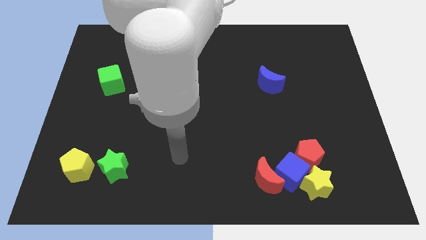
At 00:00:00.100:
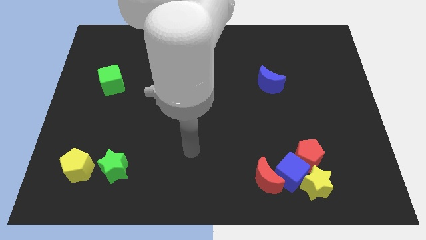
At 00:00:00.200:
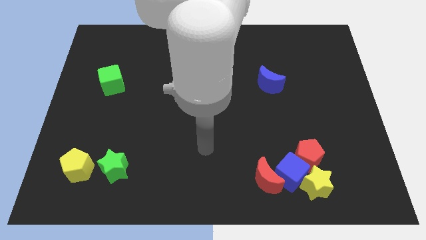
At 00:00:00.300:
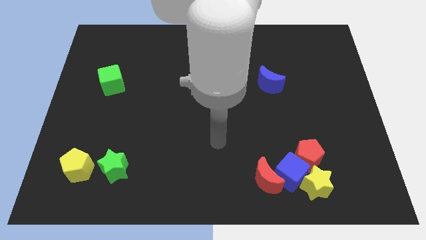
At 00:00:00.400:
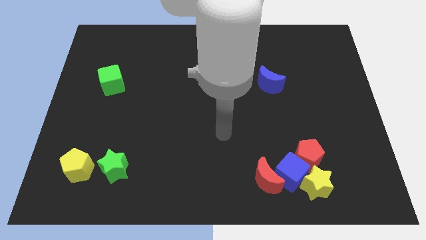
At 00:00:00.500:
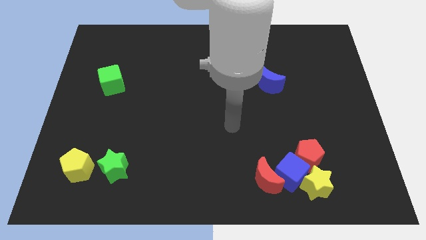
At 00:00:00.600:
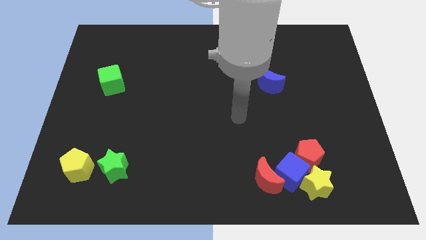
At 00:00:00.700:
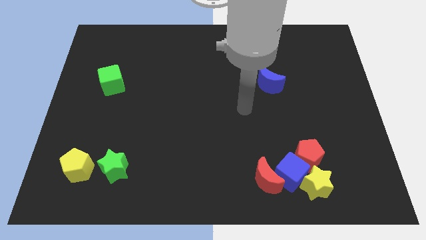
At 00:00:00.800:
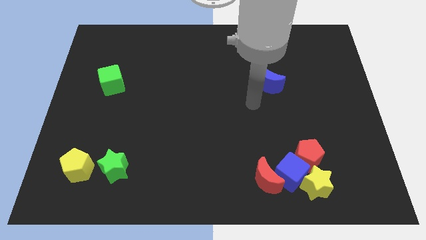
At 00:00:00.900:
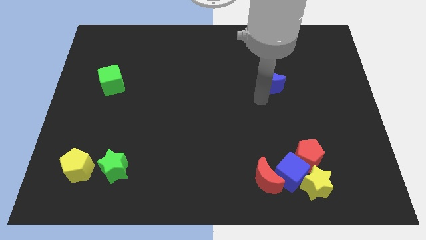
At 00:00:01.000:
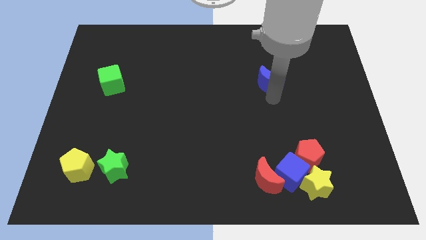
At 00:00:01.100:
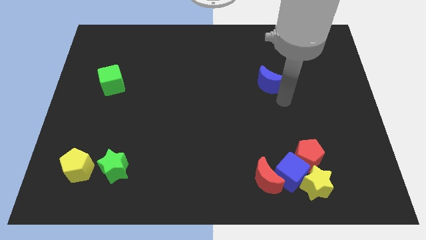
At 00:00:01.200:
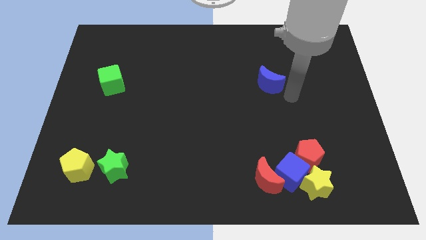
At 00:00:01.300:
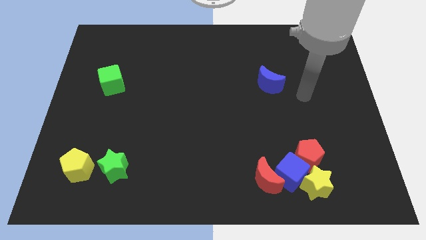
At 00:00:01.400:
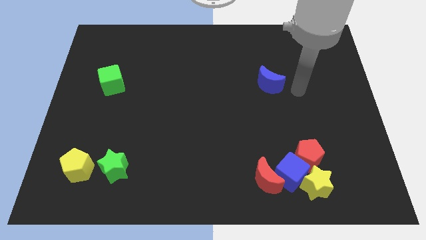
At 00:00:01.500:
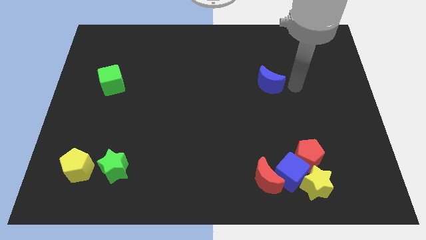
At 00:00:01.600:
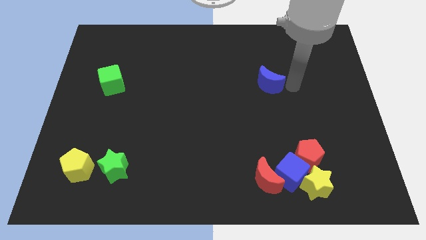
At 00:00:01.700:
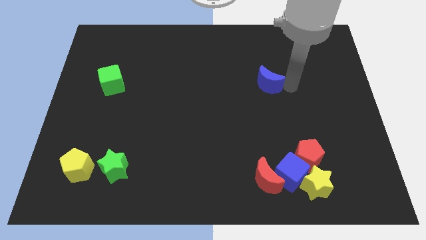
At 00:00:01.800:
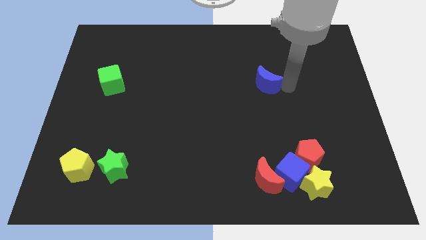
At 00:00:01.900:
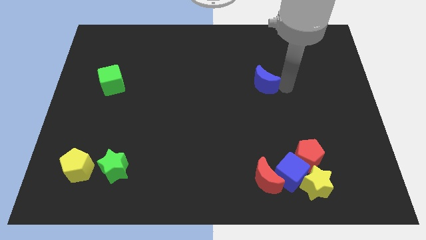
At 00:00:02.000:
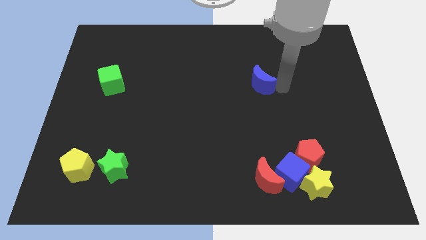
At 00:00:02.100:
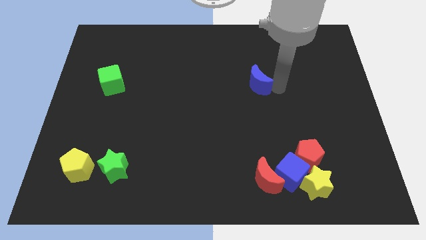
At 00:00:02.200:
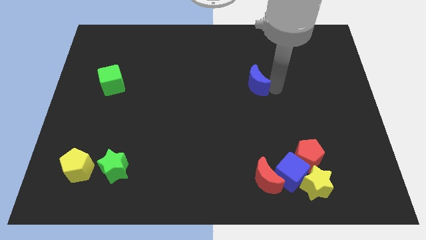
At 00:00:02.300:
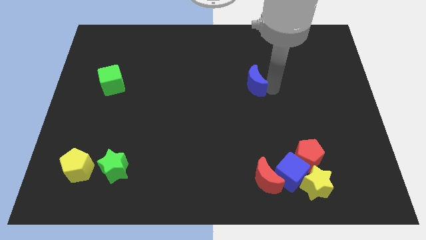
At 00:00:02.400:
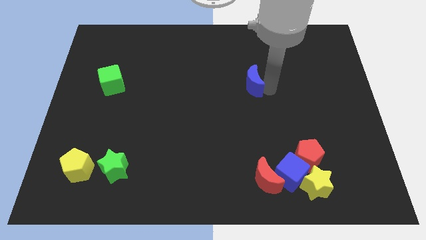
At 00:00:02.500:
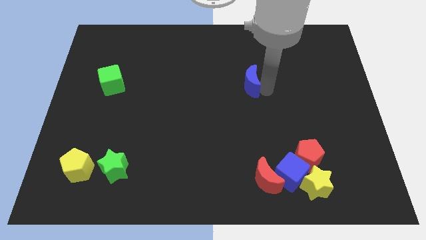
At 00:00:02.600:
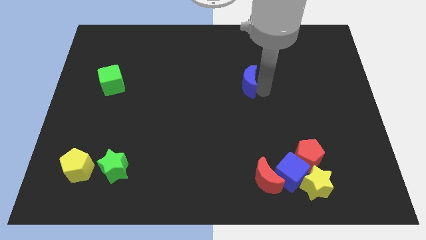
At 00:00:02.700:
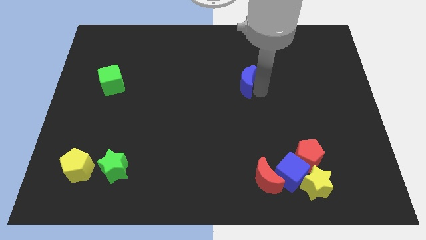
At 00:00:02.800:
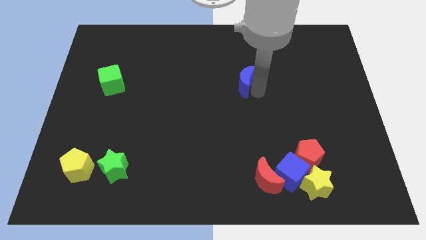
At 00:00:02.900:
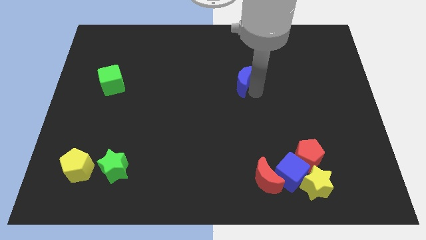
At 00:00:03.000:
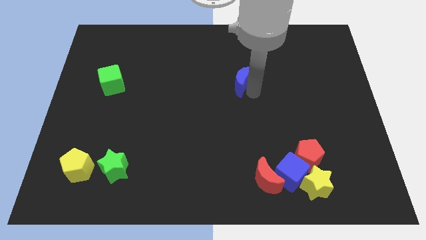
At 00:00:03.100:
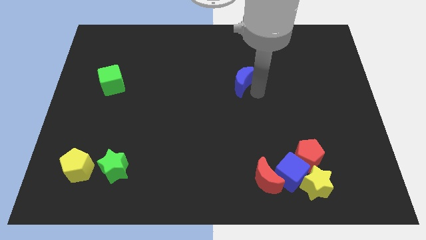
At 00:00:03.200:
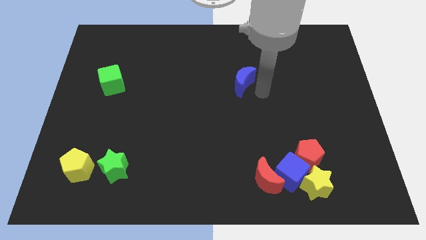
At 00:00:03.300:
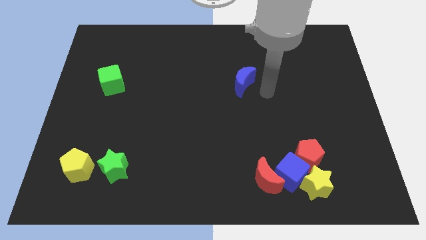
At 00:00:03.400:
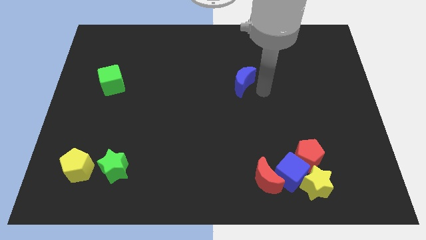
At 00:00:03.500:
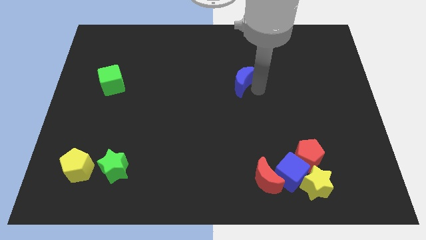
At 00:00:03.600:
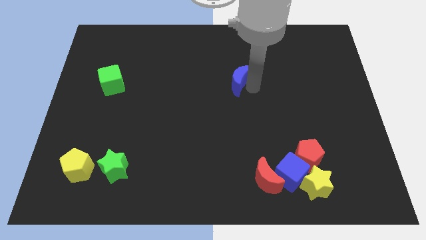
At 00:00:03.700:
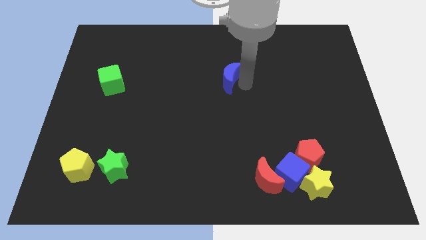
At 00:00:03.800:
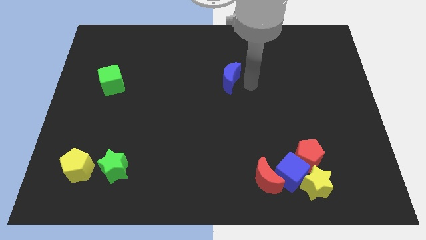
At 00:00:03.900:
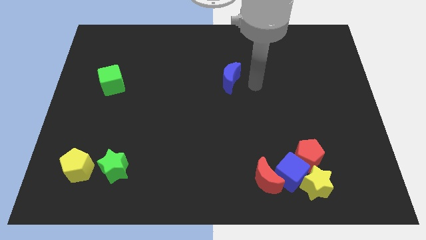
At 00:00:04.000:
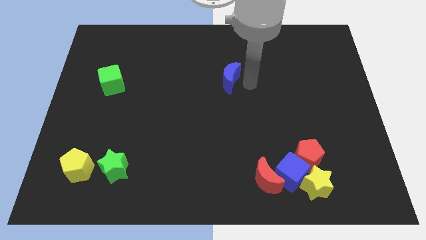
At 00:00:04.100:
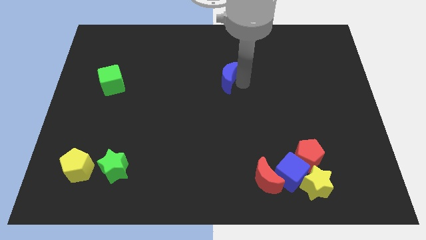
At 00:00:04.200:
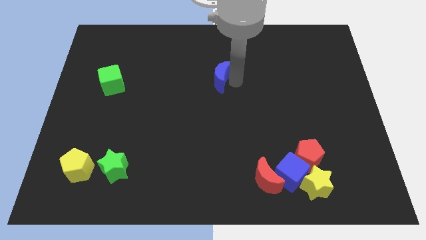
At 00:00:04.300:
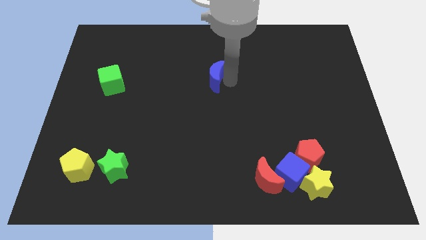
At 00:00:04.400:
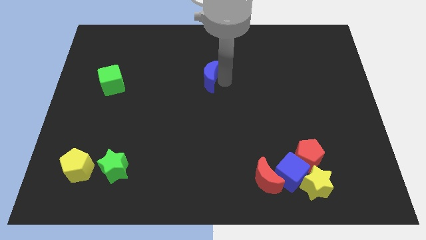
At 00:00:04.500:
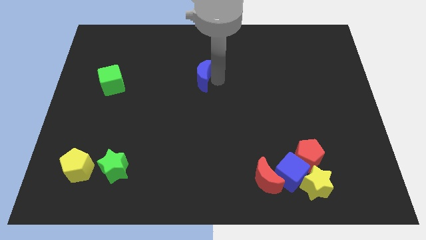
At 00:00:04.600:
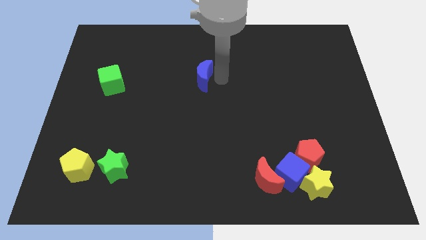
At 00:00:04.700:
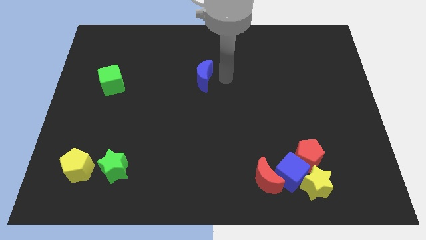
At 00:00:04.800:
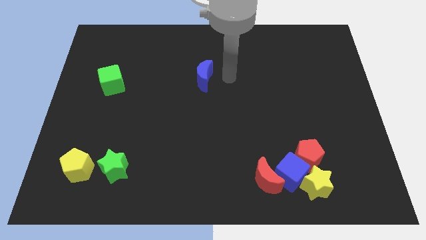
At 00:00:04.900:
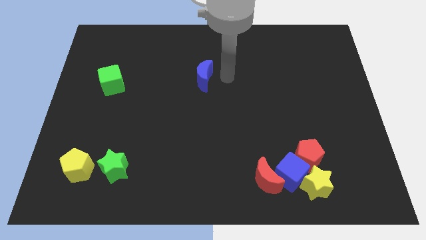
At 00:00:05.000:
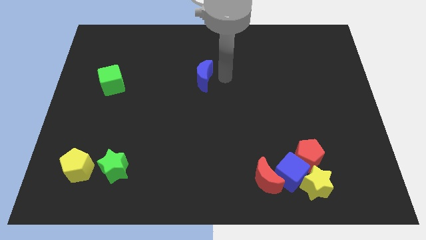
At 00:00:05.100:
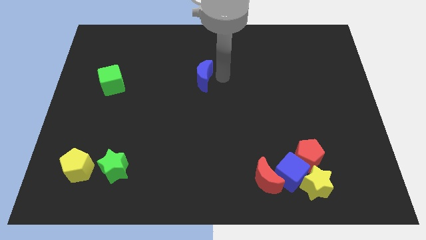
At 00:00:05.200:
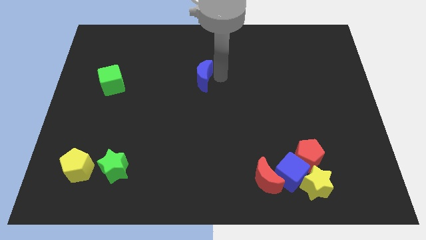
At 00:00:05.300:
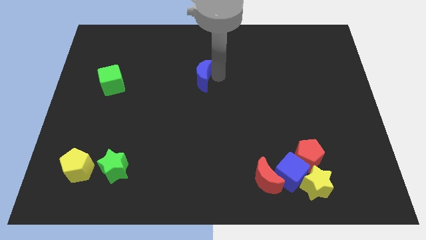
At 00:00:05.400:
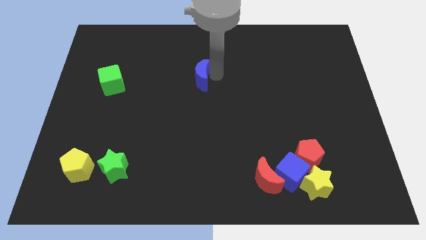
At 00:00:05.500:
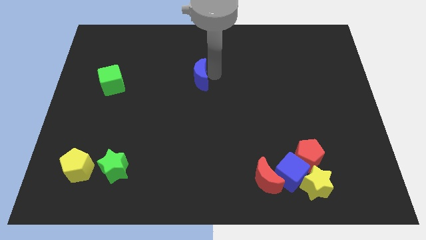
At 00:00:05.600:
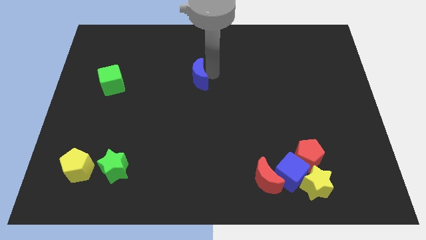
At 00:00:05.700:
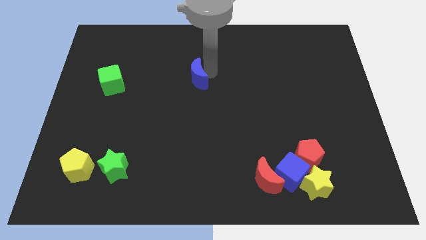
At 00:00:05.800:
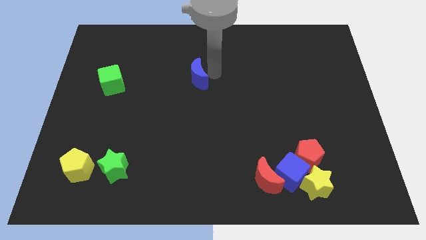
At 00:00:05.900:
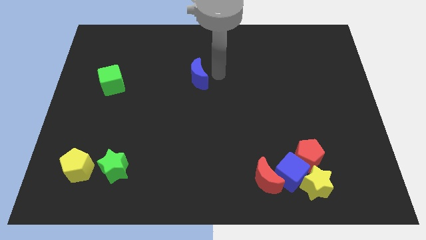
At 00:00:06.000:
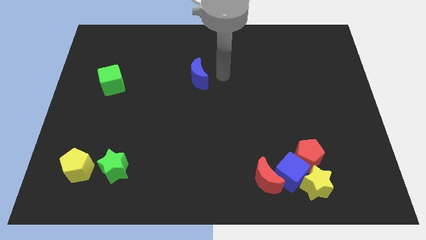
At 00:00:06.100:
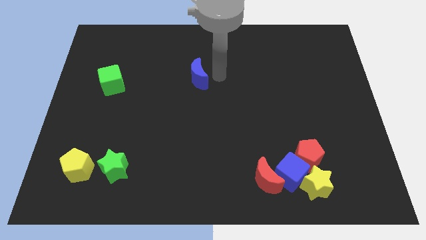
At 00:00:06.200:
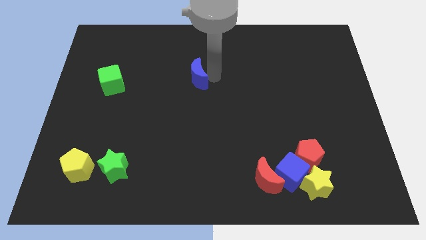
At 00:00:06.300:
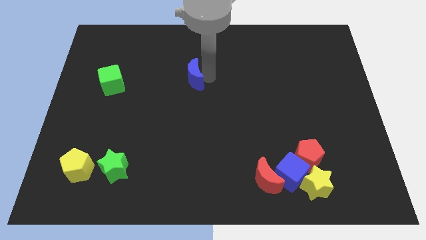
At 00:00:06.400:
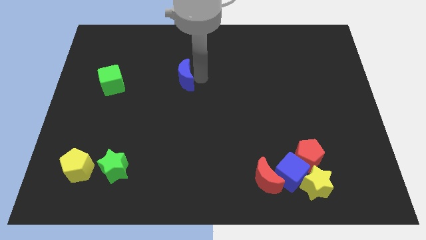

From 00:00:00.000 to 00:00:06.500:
slide the blue moon left

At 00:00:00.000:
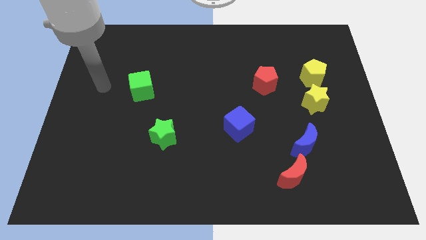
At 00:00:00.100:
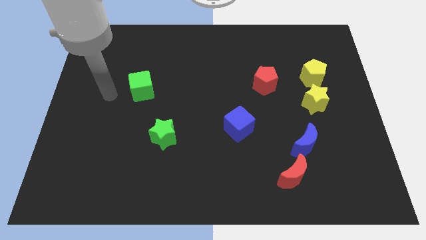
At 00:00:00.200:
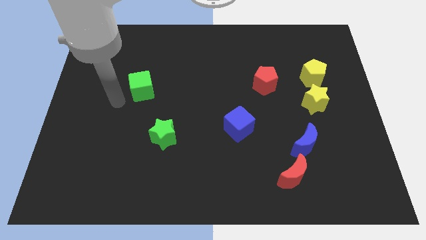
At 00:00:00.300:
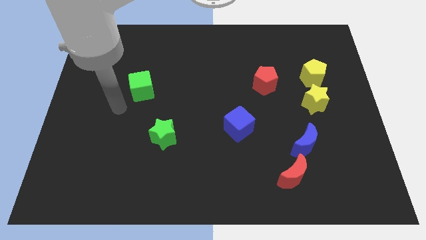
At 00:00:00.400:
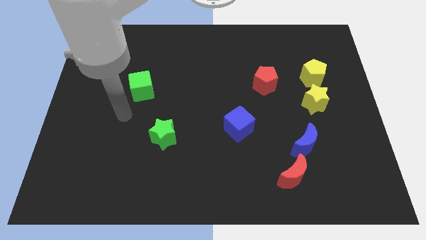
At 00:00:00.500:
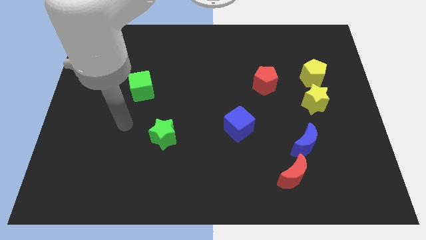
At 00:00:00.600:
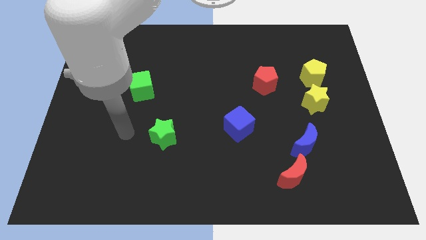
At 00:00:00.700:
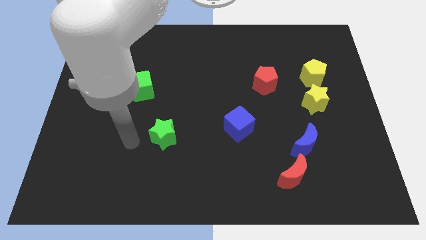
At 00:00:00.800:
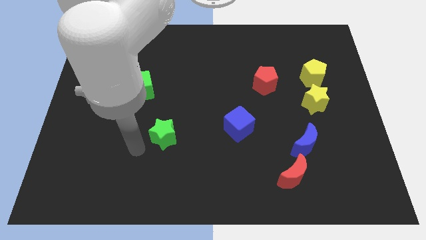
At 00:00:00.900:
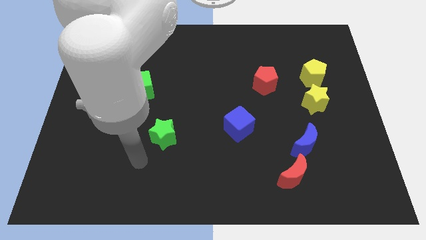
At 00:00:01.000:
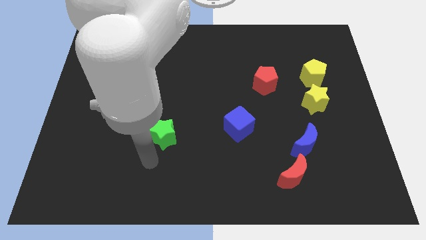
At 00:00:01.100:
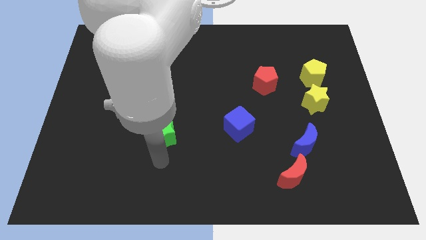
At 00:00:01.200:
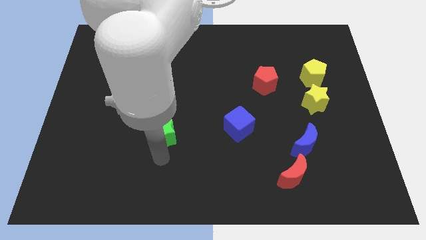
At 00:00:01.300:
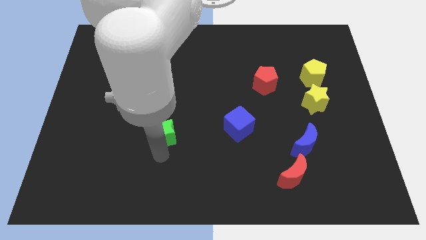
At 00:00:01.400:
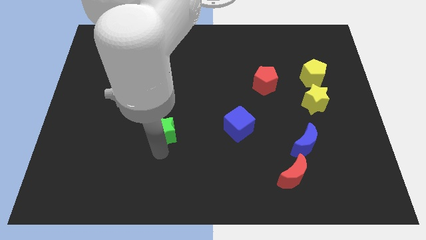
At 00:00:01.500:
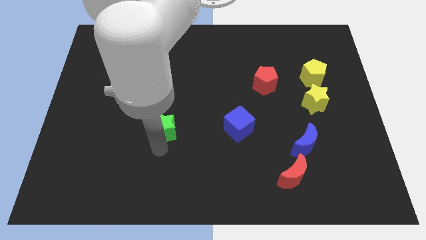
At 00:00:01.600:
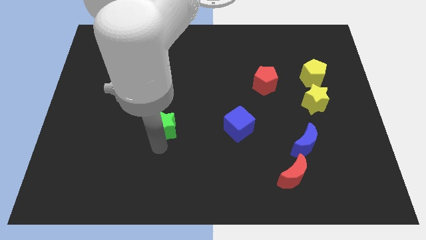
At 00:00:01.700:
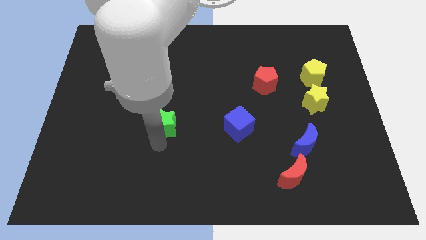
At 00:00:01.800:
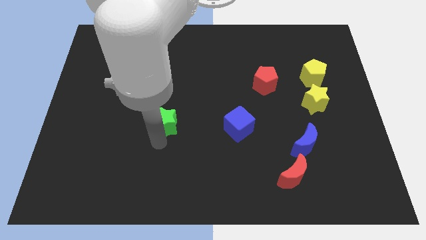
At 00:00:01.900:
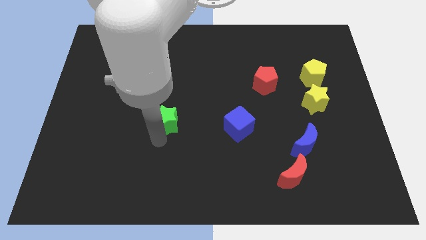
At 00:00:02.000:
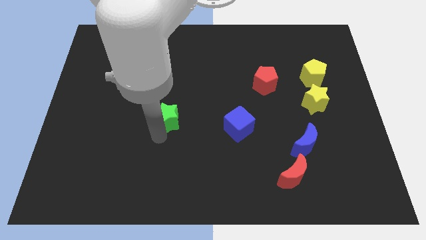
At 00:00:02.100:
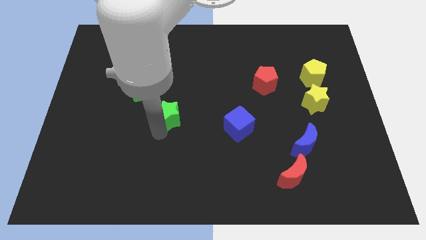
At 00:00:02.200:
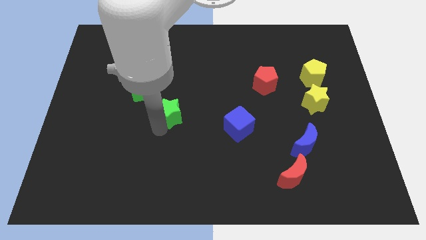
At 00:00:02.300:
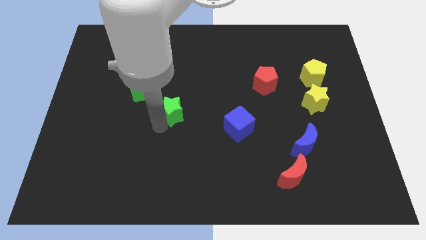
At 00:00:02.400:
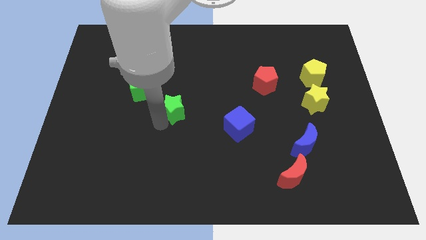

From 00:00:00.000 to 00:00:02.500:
slide the green star up a little
